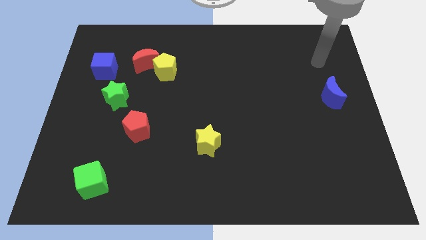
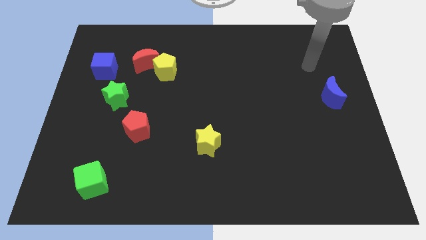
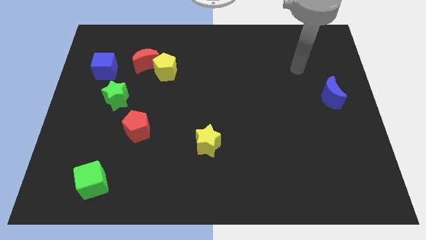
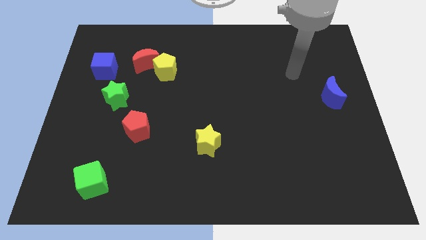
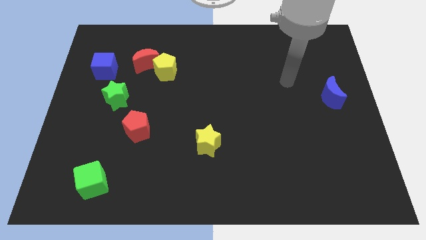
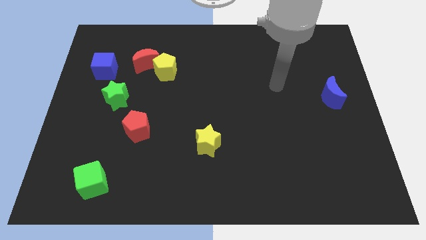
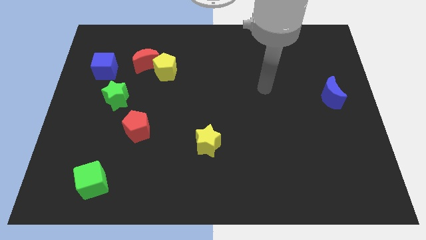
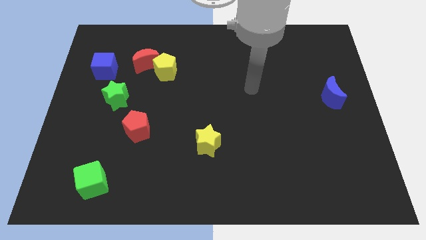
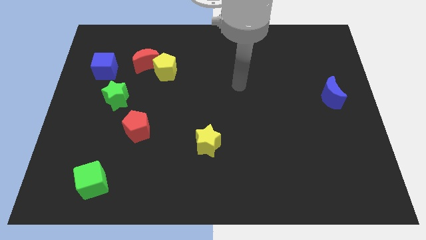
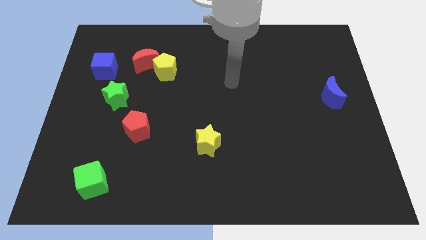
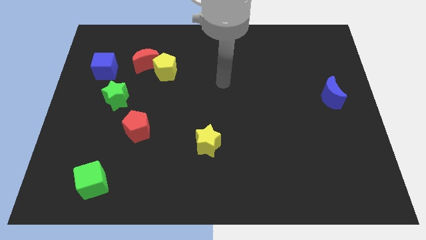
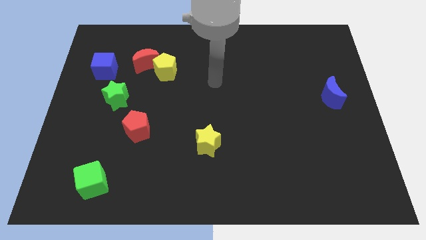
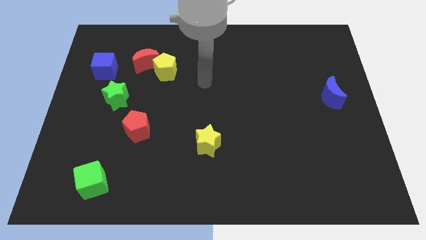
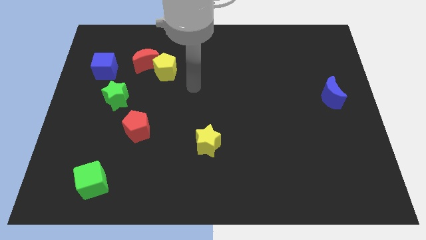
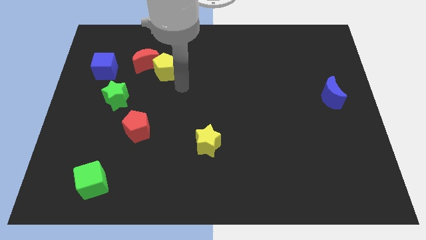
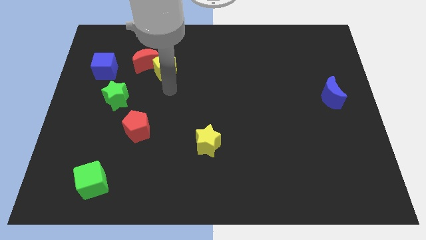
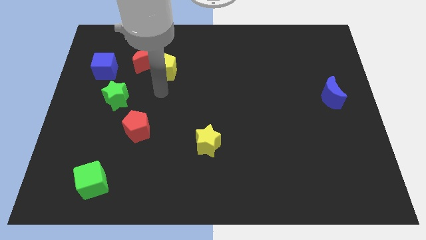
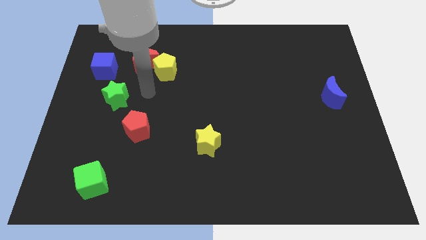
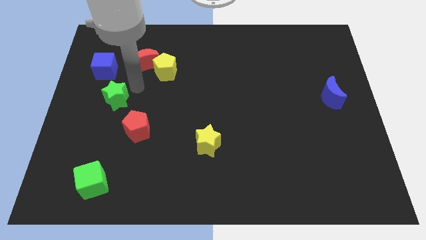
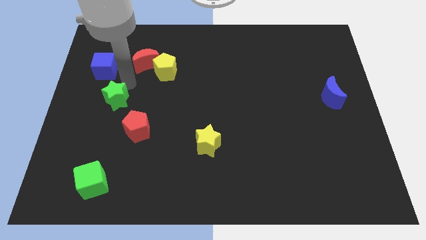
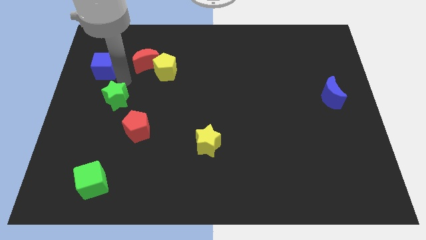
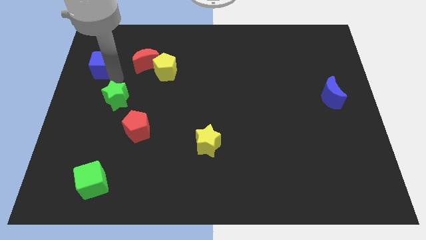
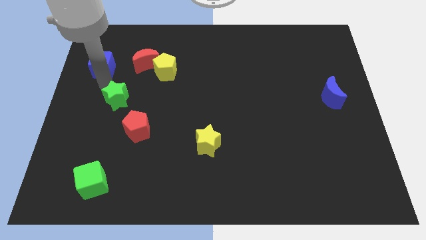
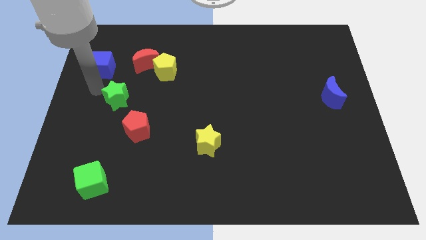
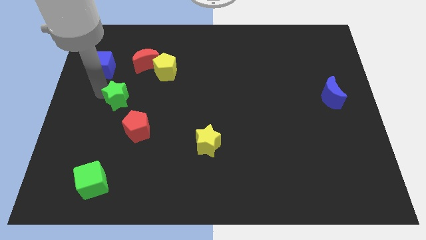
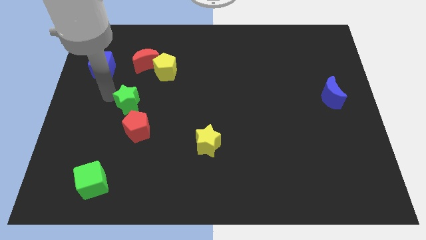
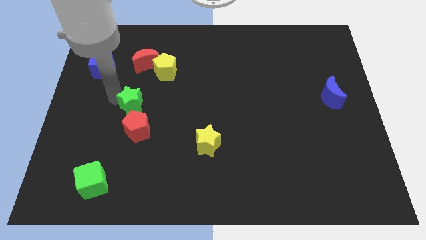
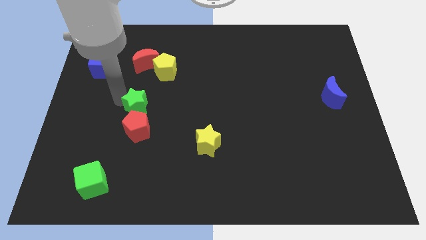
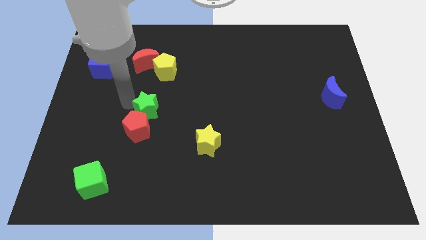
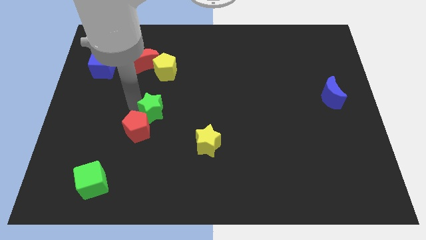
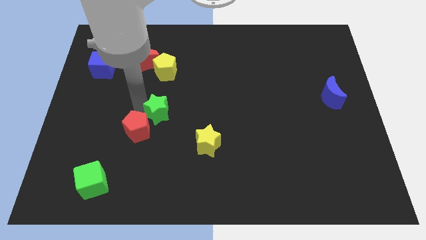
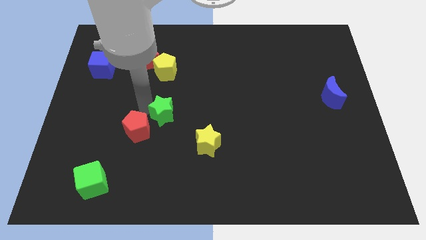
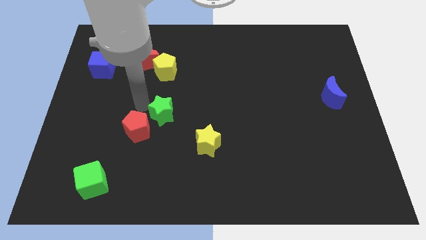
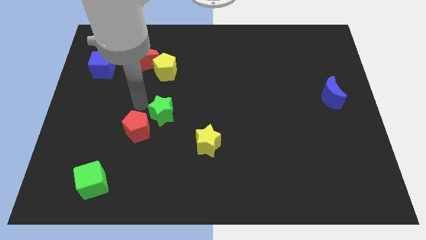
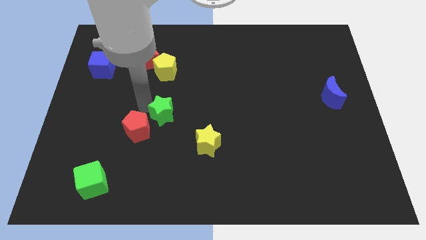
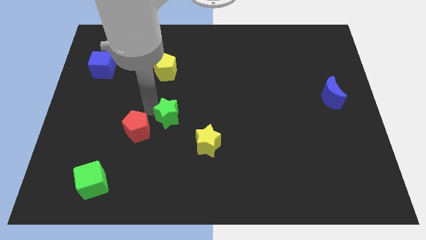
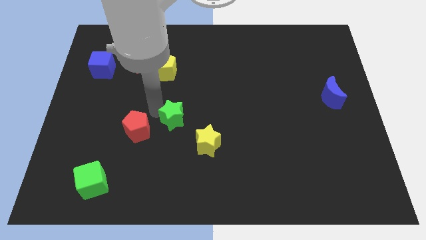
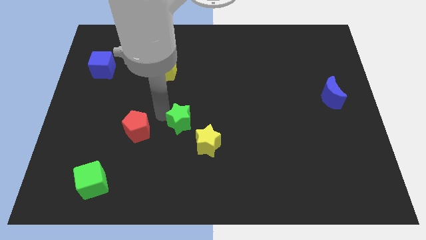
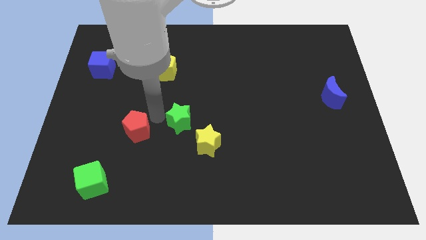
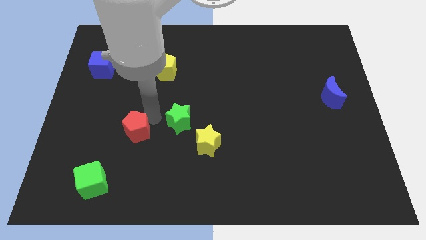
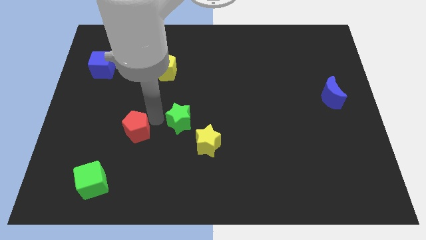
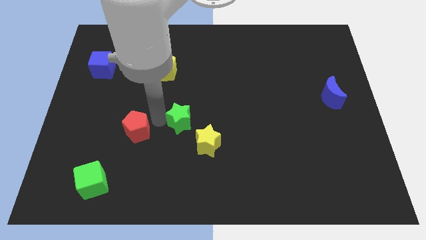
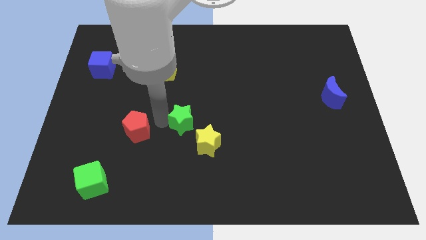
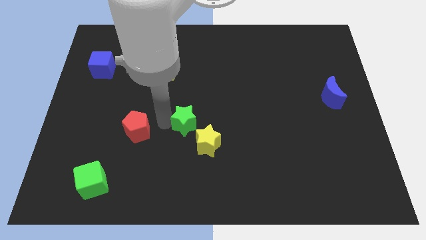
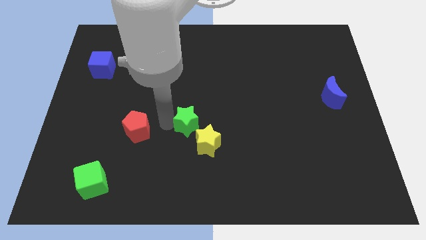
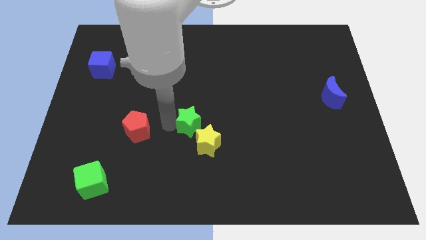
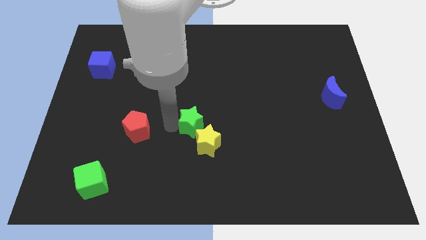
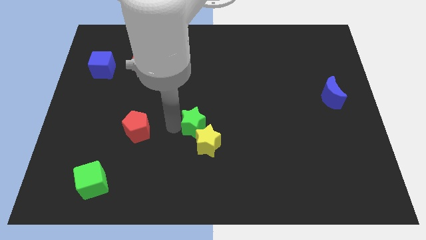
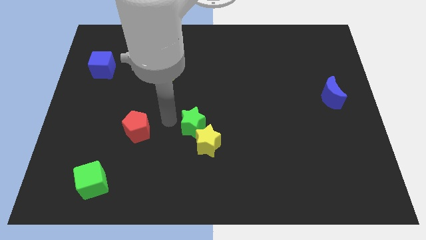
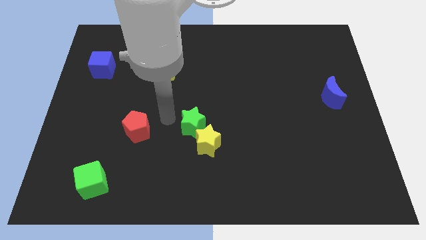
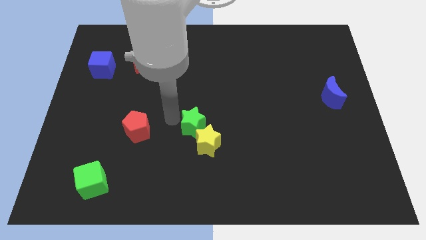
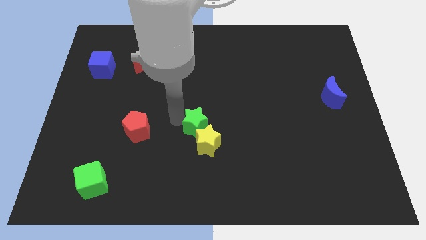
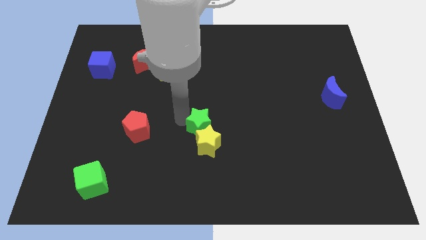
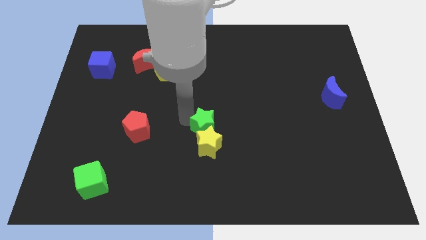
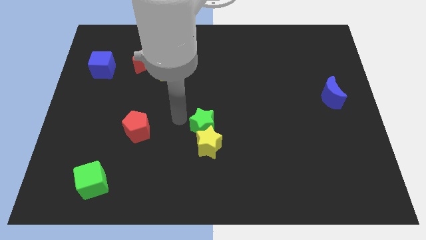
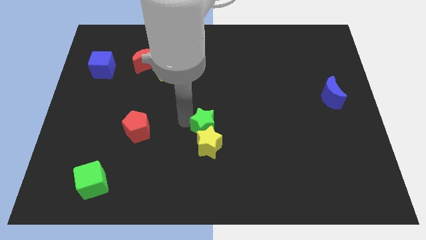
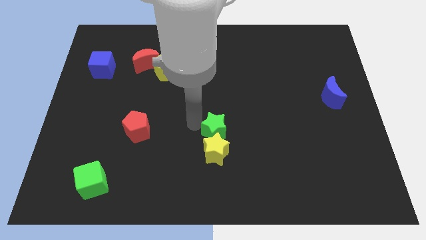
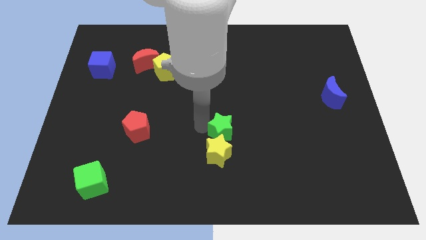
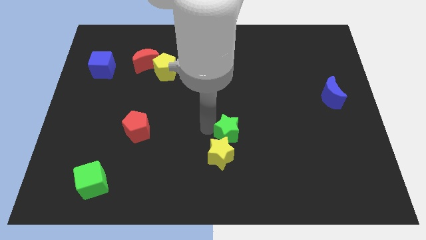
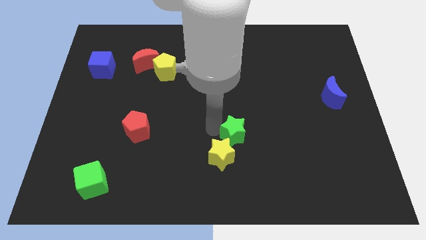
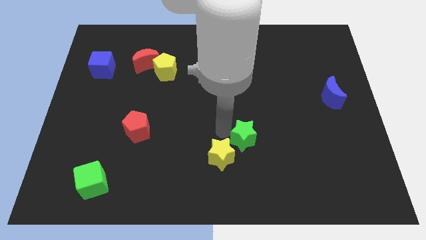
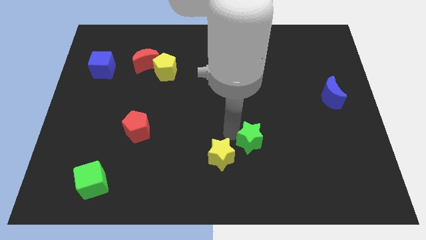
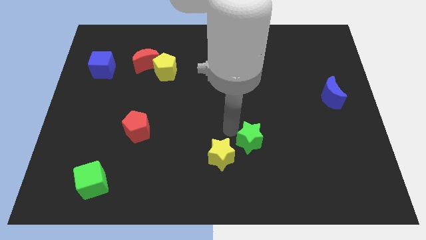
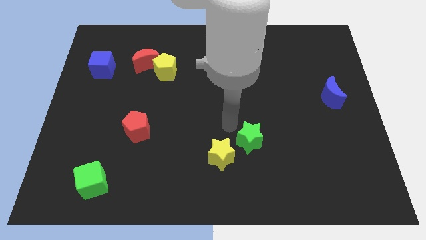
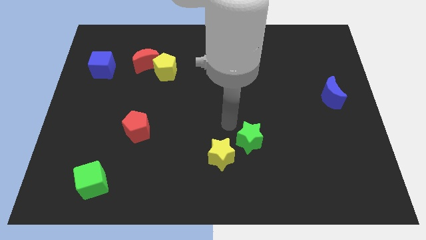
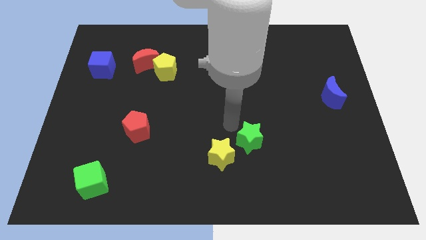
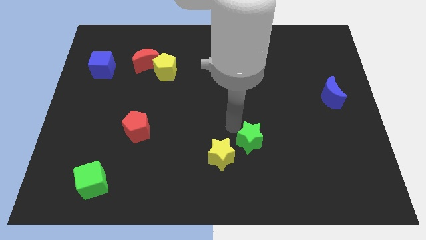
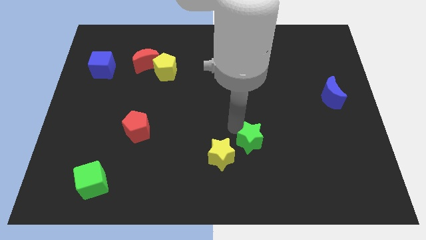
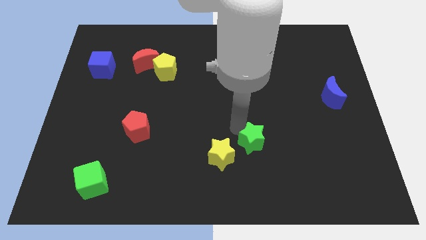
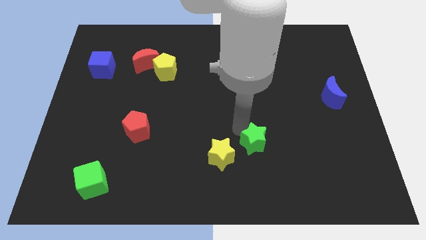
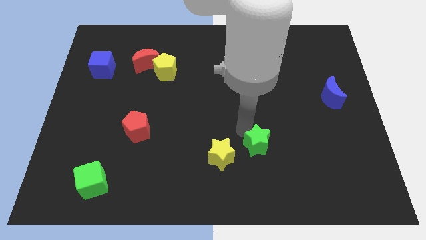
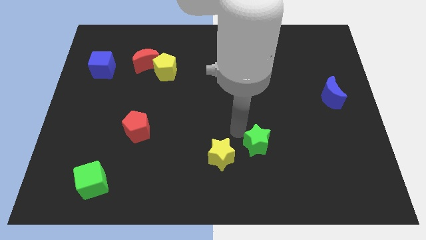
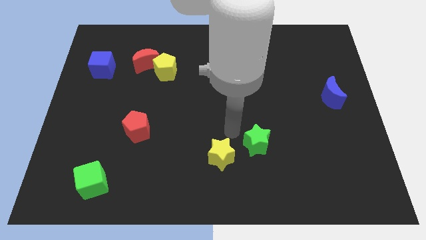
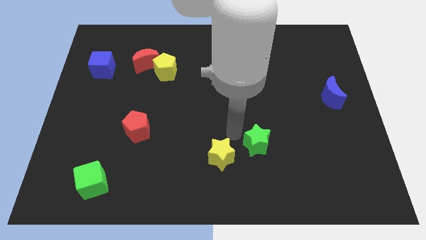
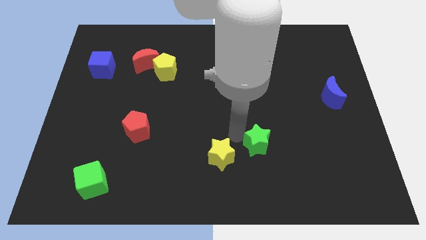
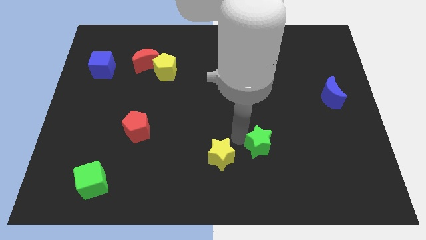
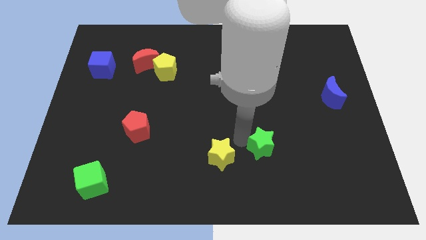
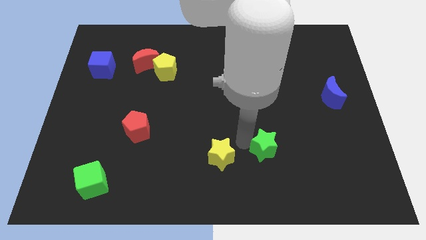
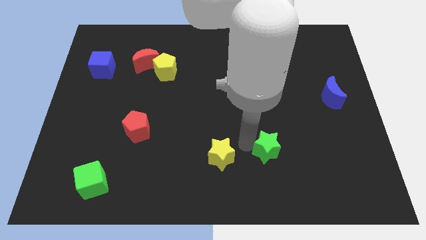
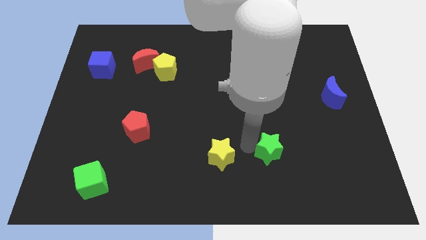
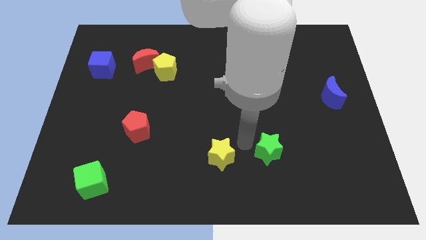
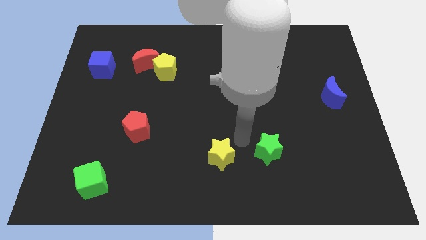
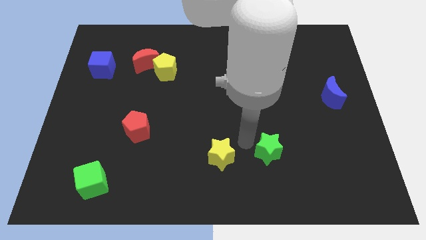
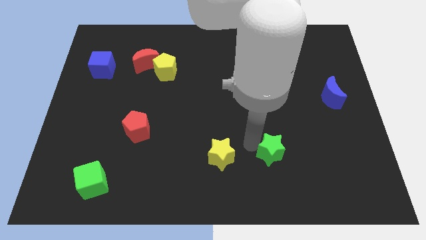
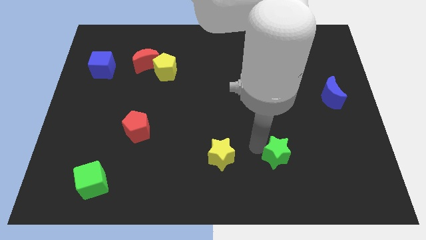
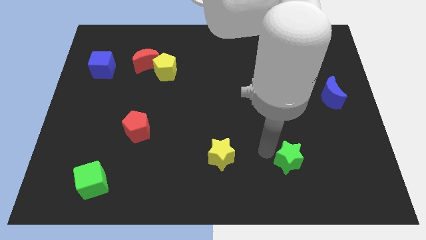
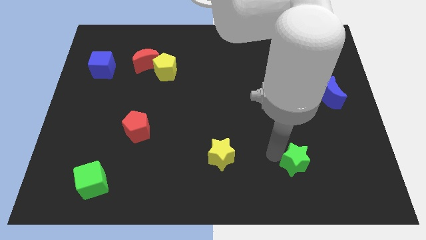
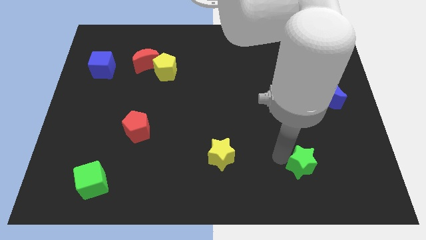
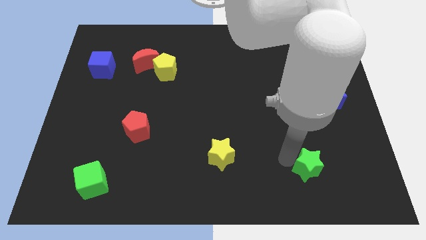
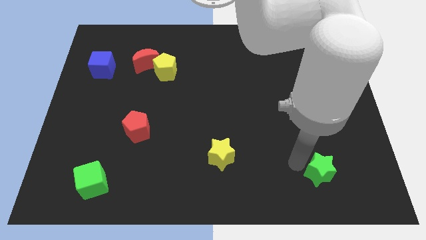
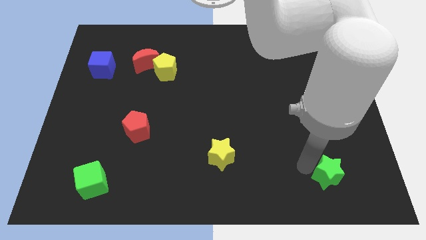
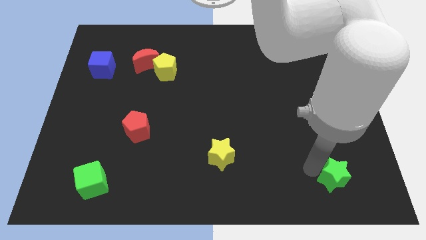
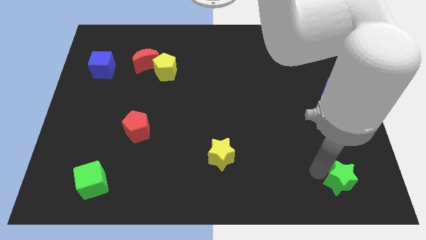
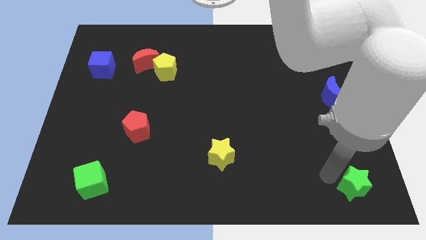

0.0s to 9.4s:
move the green star to the bottom right corner
